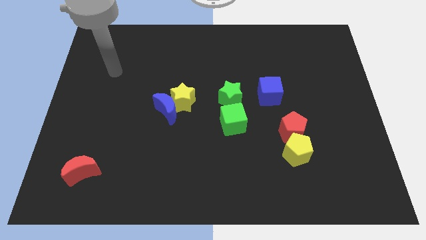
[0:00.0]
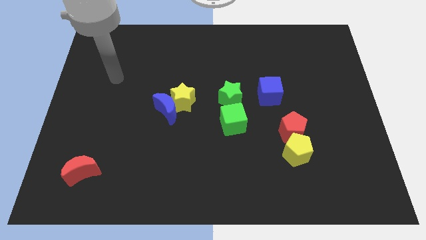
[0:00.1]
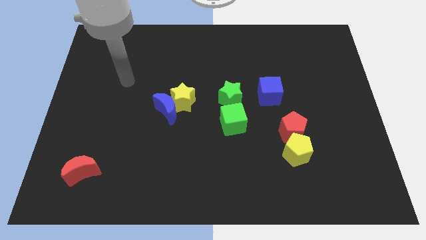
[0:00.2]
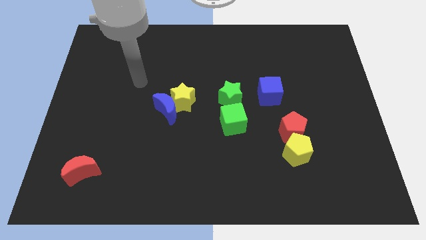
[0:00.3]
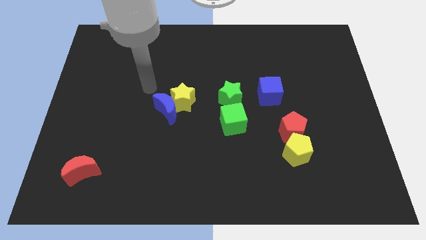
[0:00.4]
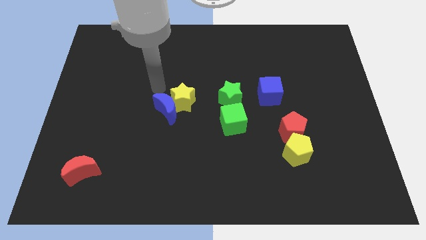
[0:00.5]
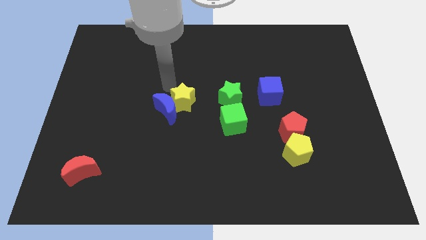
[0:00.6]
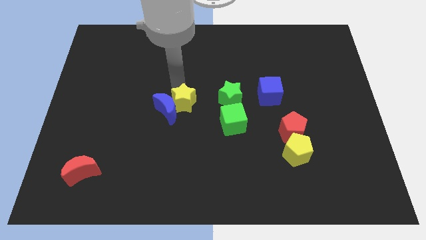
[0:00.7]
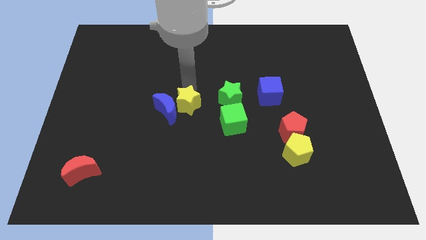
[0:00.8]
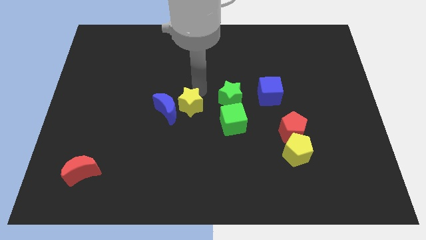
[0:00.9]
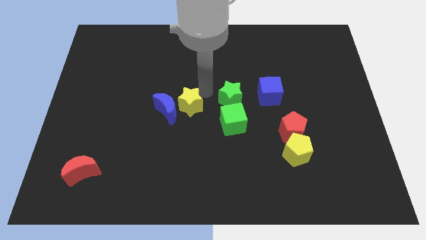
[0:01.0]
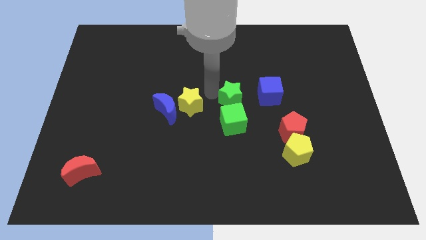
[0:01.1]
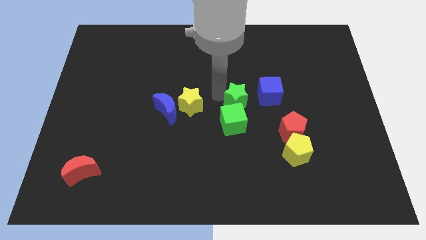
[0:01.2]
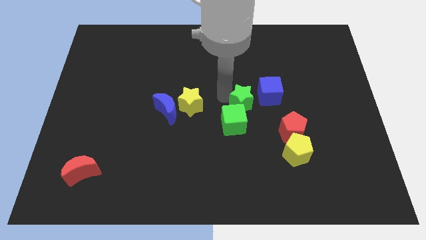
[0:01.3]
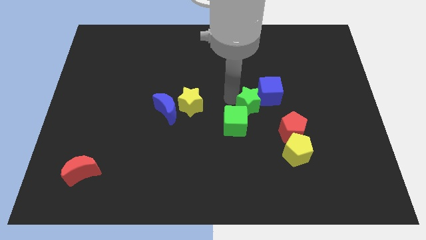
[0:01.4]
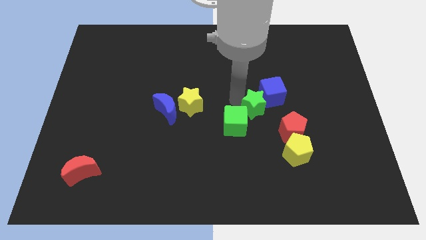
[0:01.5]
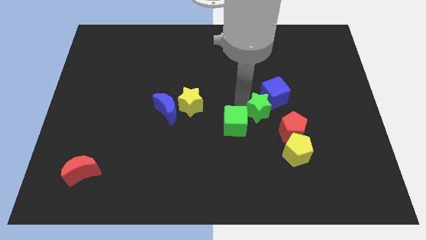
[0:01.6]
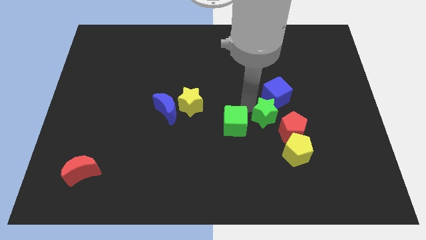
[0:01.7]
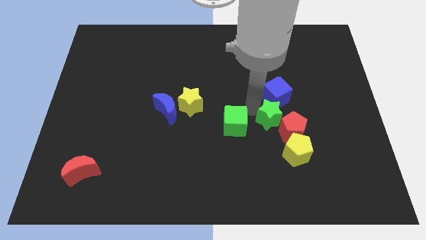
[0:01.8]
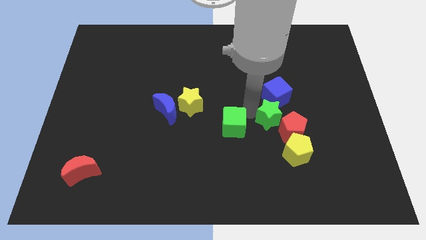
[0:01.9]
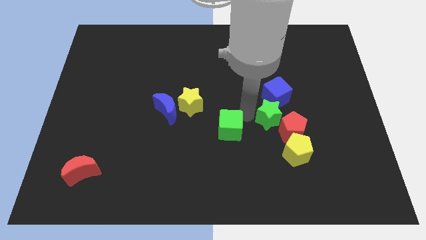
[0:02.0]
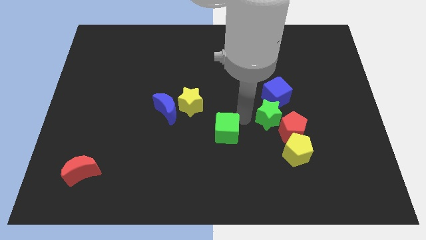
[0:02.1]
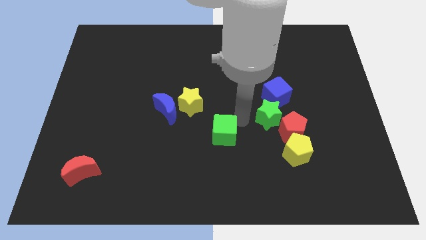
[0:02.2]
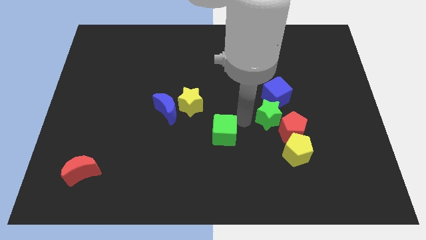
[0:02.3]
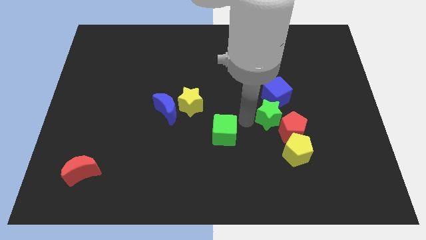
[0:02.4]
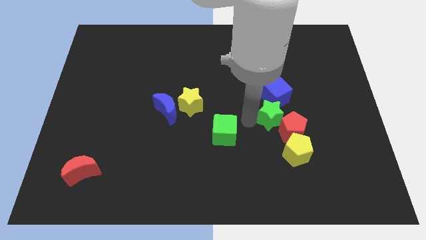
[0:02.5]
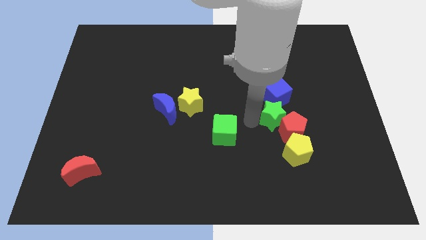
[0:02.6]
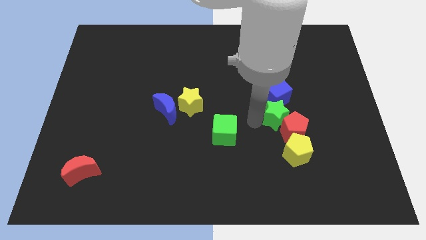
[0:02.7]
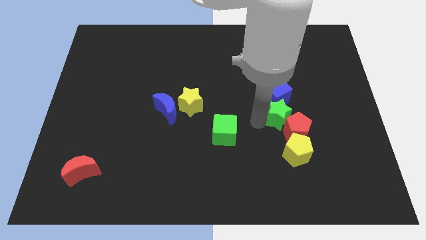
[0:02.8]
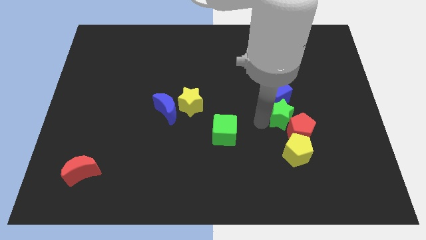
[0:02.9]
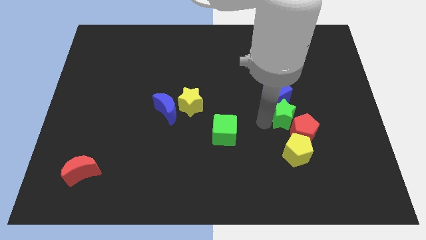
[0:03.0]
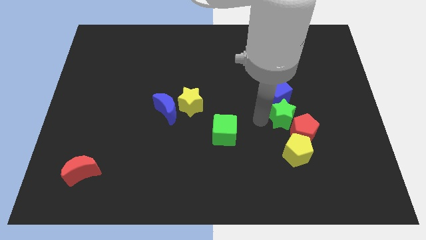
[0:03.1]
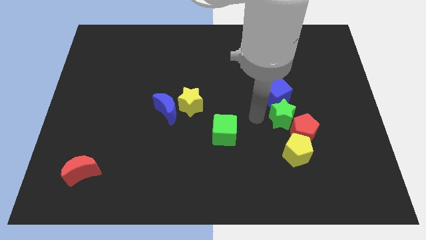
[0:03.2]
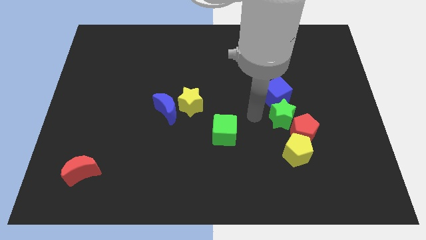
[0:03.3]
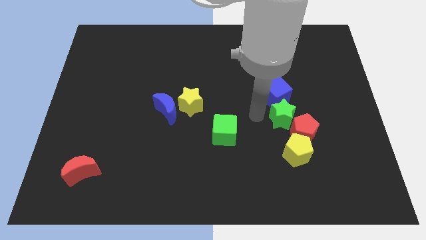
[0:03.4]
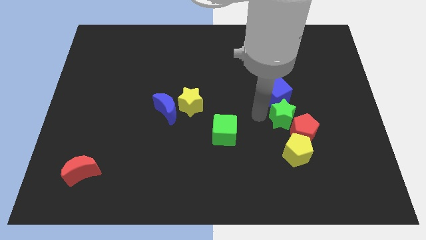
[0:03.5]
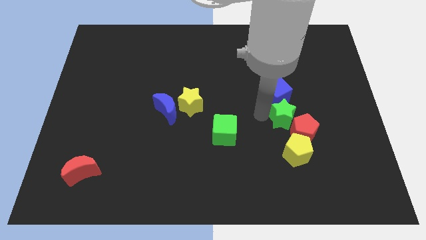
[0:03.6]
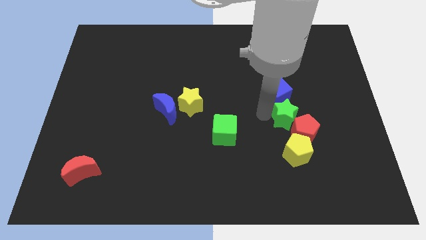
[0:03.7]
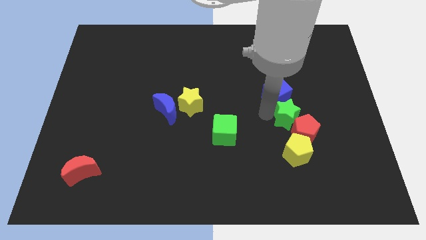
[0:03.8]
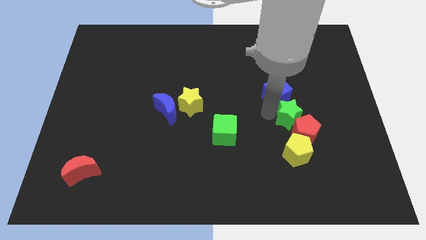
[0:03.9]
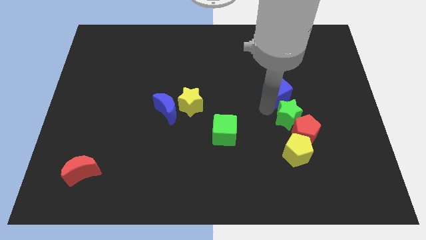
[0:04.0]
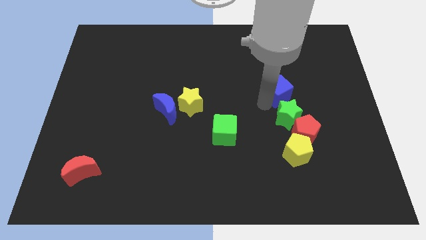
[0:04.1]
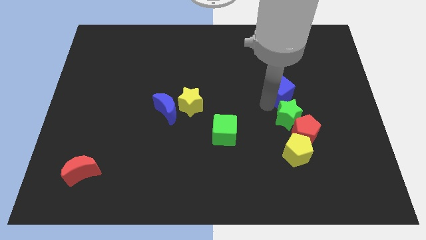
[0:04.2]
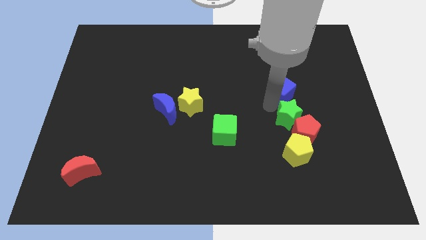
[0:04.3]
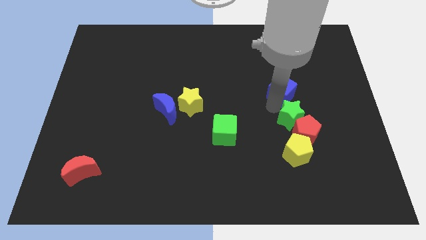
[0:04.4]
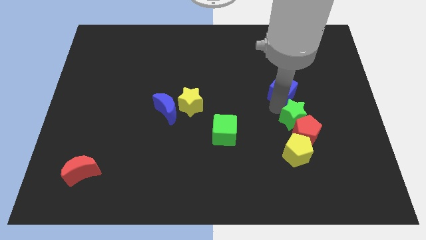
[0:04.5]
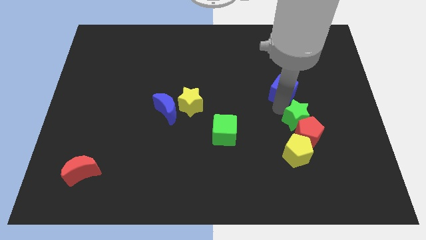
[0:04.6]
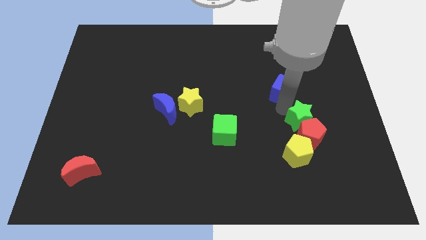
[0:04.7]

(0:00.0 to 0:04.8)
put the green star to the top right of the yellow pentagon

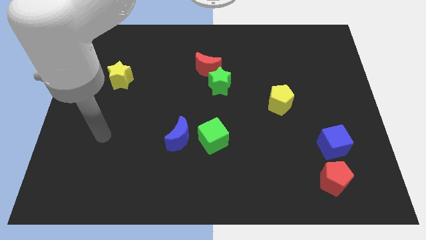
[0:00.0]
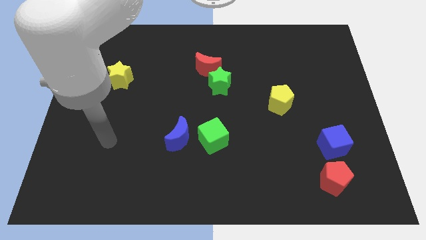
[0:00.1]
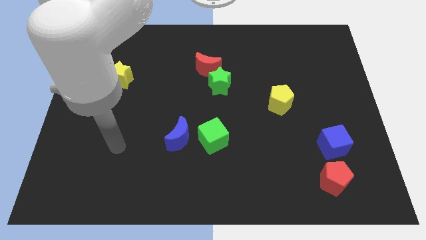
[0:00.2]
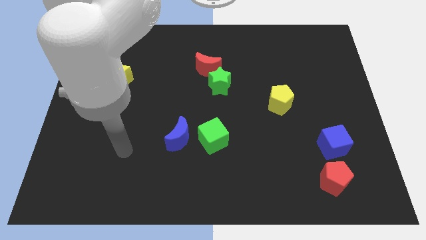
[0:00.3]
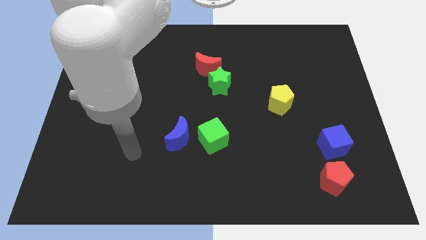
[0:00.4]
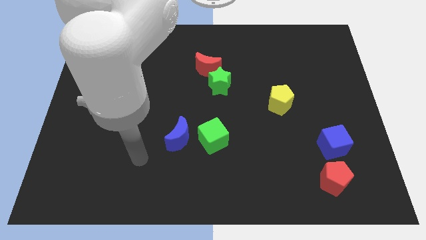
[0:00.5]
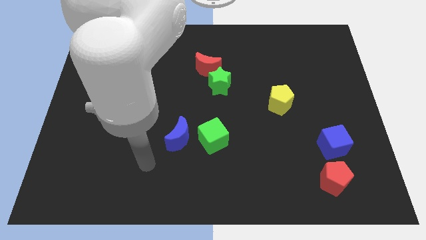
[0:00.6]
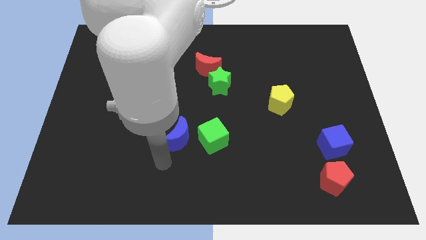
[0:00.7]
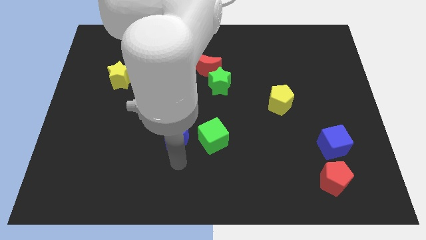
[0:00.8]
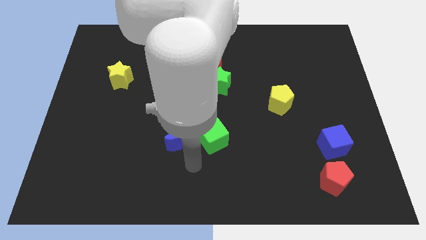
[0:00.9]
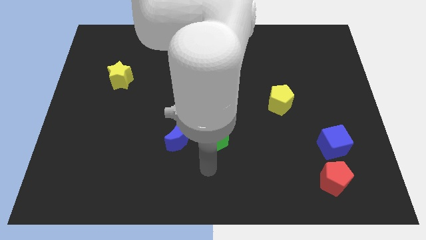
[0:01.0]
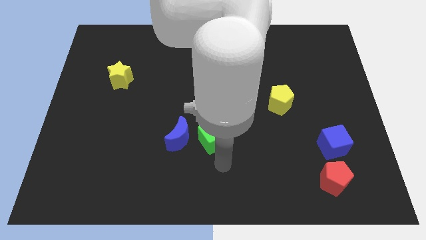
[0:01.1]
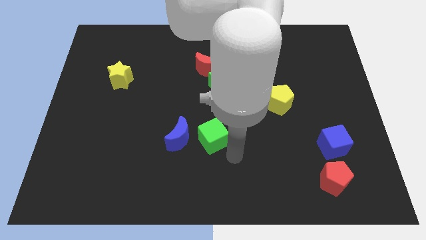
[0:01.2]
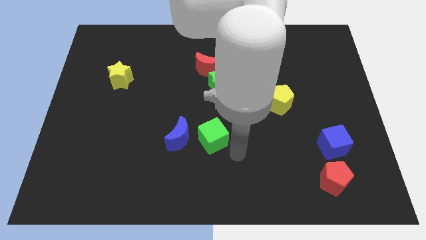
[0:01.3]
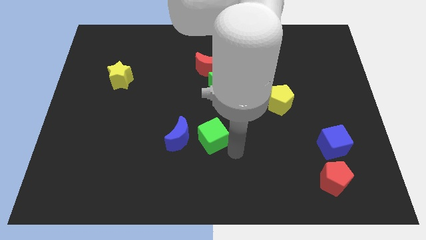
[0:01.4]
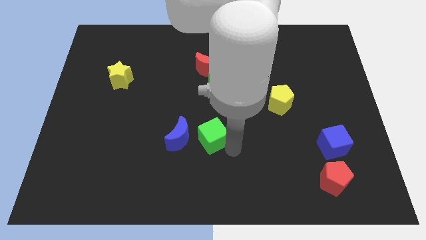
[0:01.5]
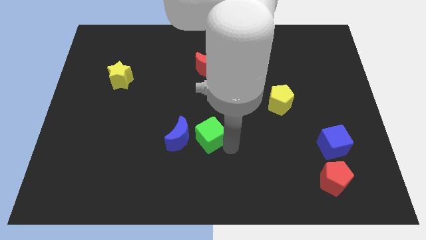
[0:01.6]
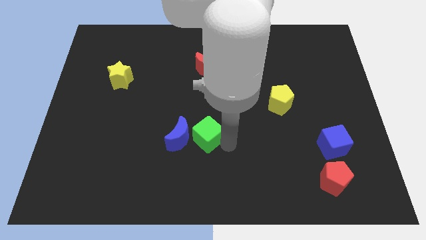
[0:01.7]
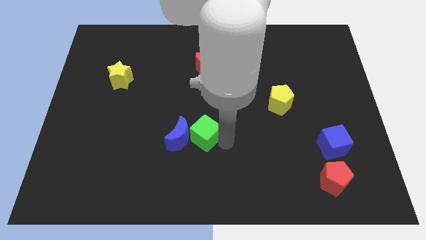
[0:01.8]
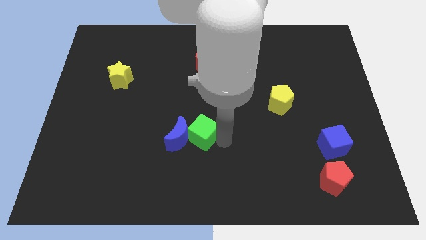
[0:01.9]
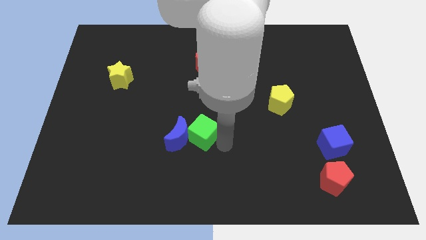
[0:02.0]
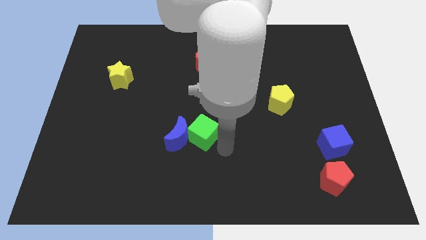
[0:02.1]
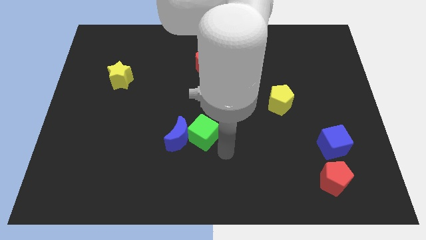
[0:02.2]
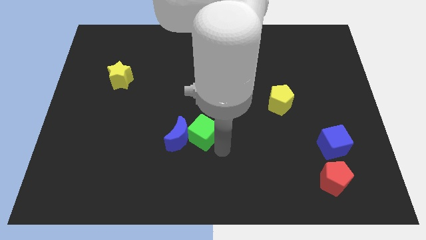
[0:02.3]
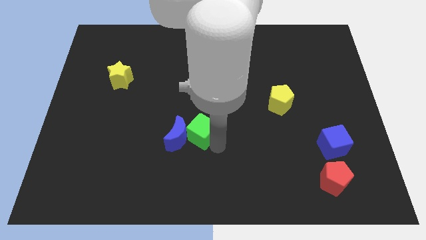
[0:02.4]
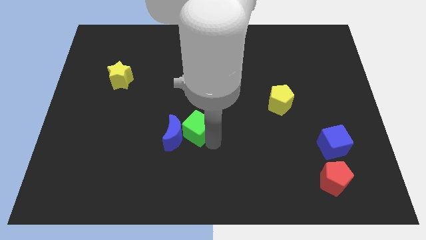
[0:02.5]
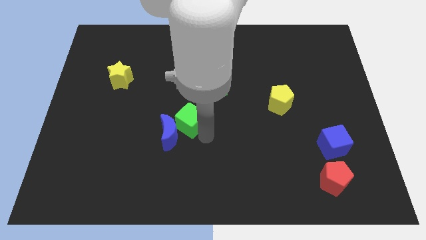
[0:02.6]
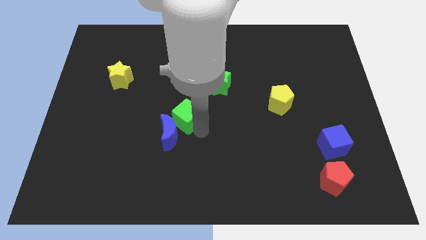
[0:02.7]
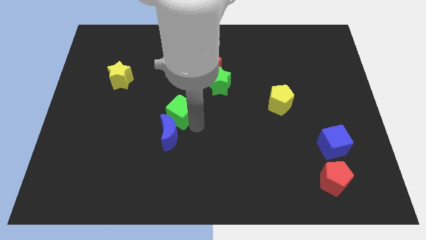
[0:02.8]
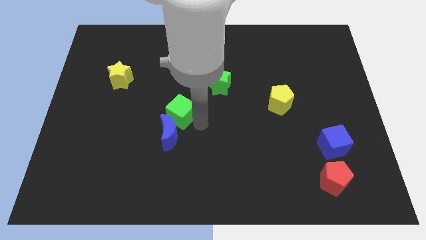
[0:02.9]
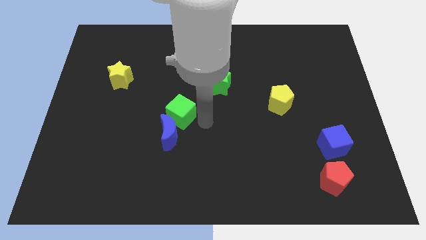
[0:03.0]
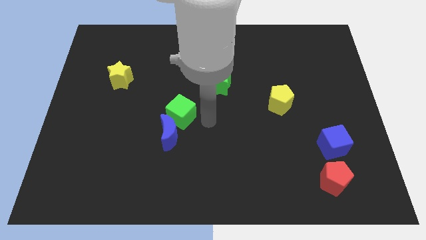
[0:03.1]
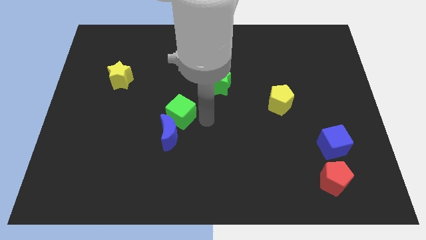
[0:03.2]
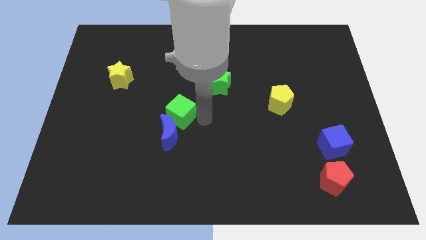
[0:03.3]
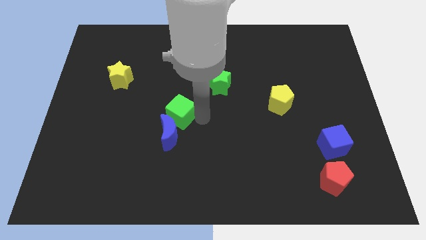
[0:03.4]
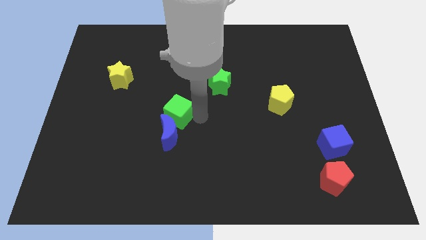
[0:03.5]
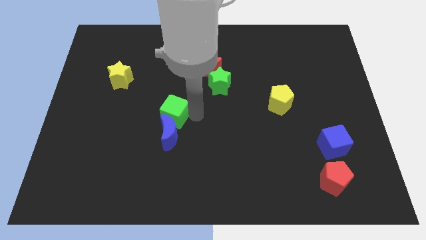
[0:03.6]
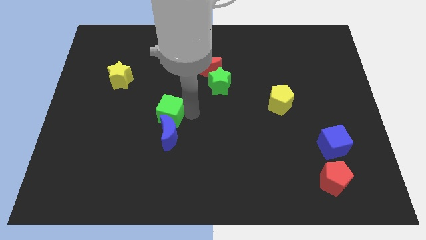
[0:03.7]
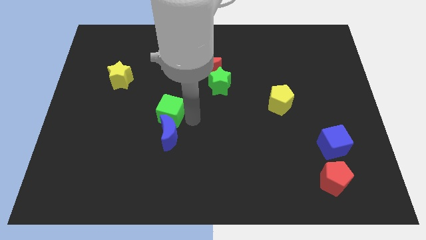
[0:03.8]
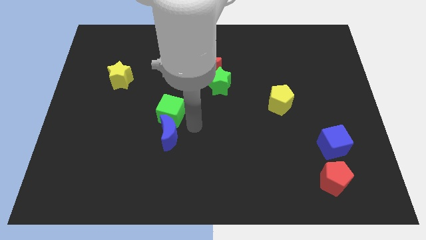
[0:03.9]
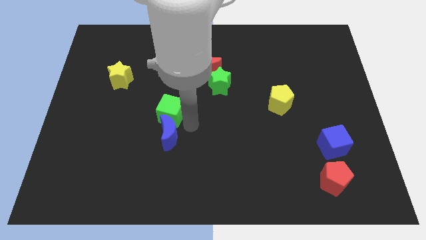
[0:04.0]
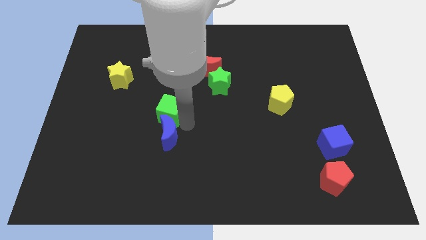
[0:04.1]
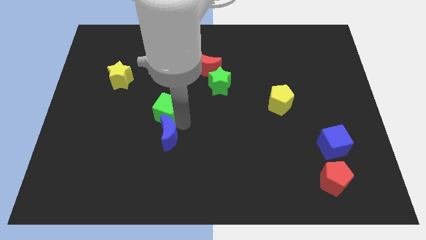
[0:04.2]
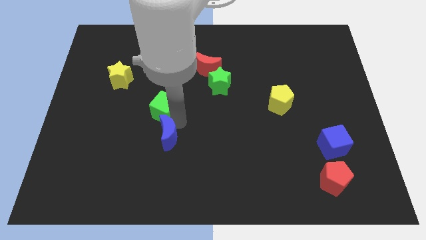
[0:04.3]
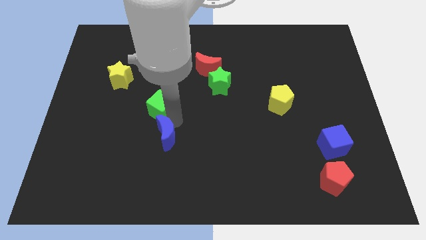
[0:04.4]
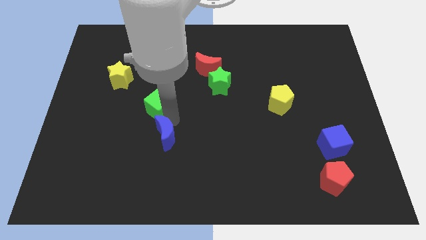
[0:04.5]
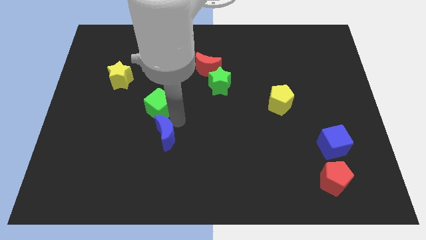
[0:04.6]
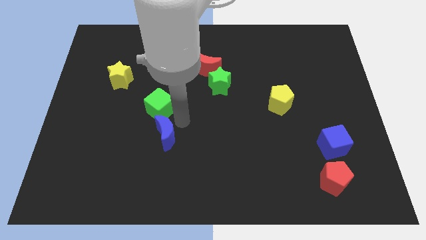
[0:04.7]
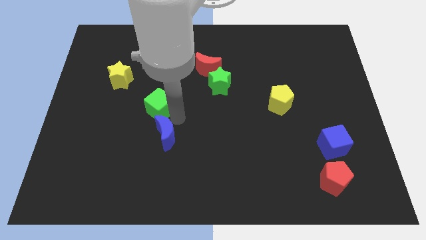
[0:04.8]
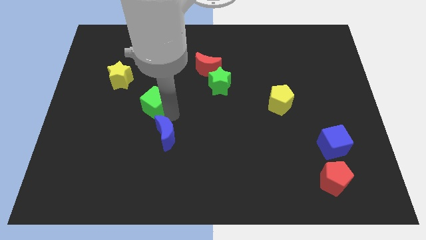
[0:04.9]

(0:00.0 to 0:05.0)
move the green cube to the bottom right of the yellow star
